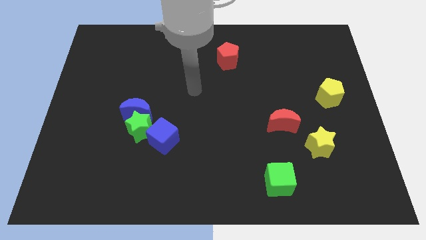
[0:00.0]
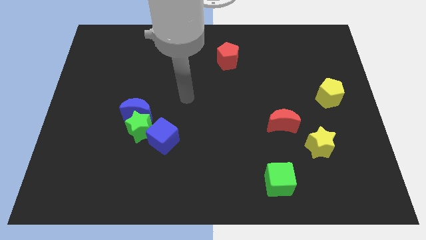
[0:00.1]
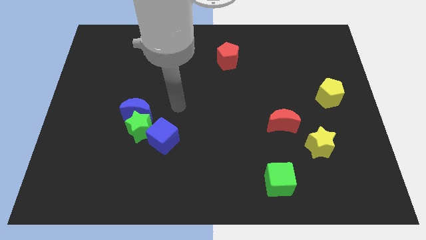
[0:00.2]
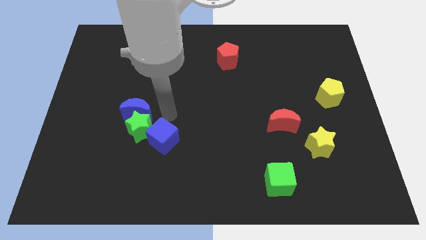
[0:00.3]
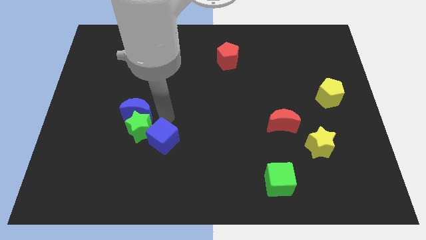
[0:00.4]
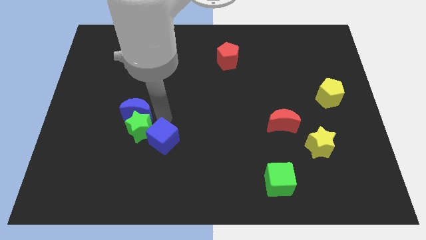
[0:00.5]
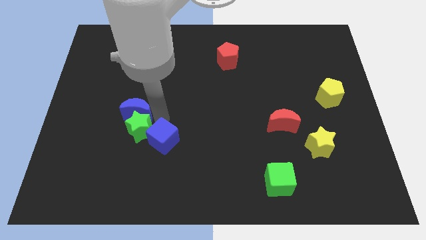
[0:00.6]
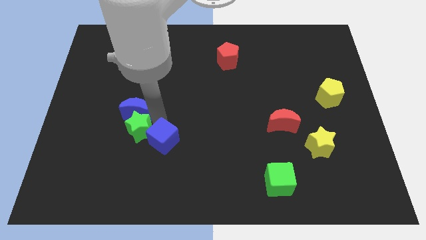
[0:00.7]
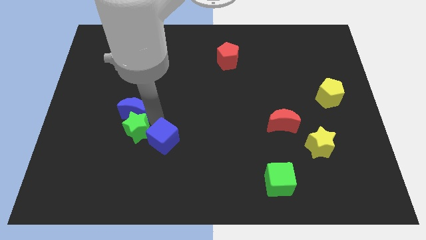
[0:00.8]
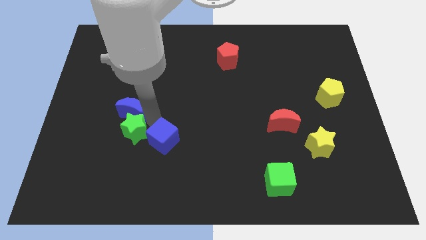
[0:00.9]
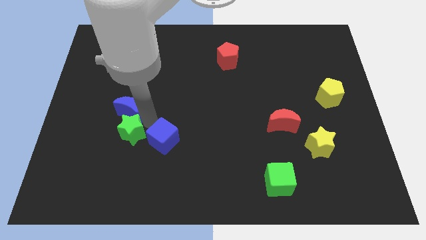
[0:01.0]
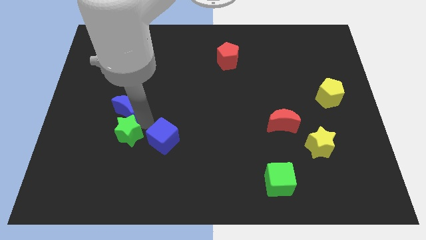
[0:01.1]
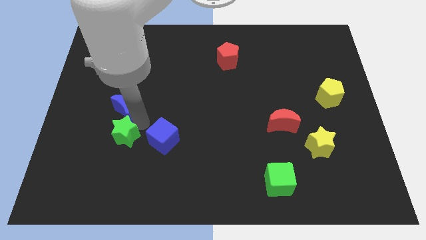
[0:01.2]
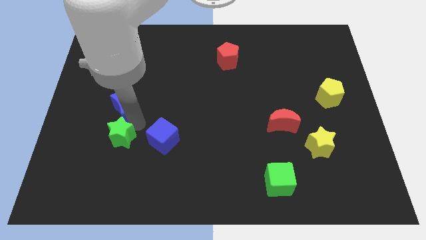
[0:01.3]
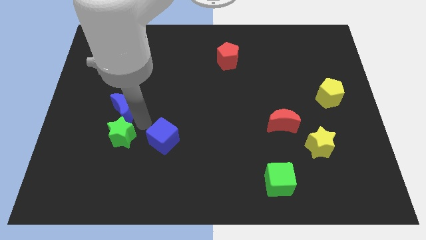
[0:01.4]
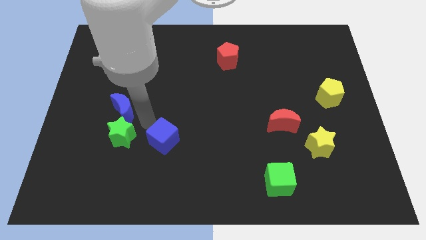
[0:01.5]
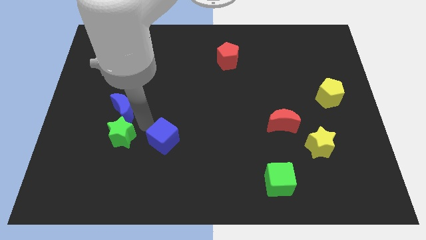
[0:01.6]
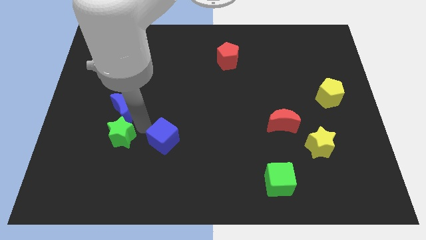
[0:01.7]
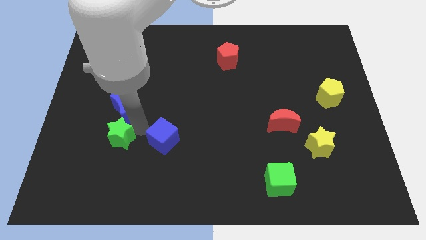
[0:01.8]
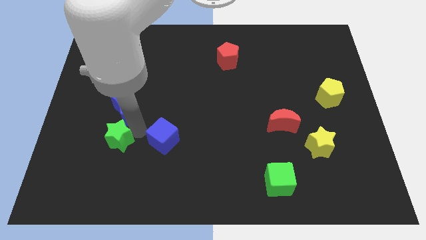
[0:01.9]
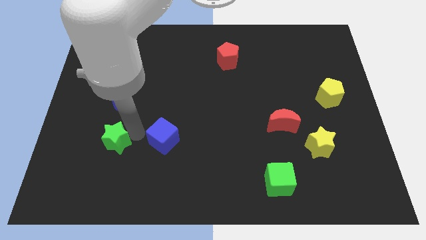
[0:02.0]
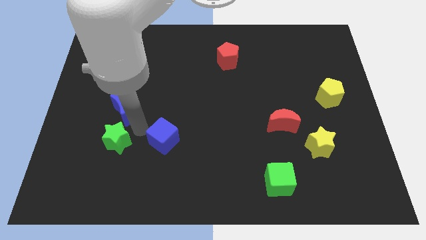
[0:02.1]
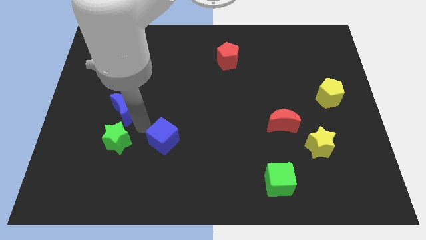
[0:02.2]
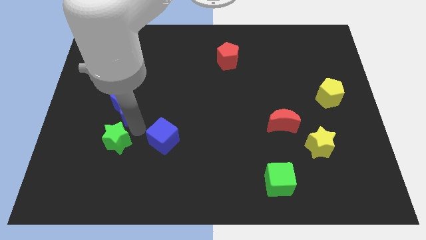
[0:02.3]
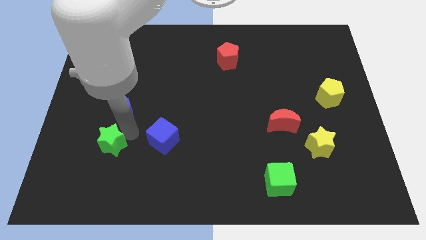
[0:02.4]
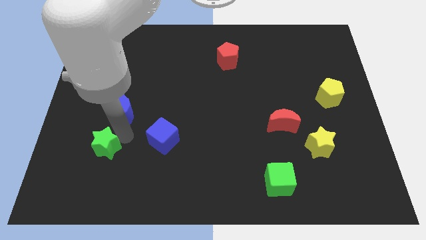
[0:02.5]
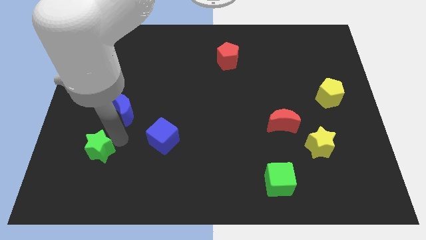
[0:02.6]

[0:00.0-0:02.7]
move the green star away from the blue moon and blue cube

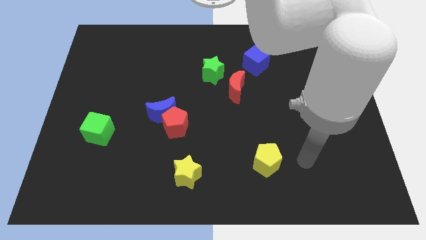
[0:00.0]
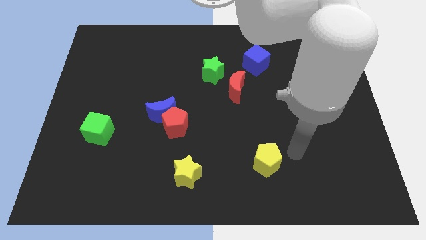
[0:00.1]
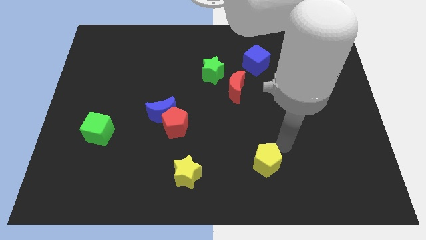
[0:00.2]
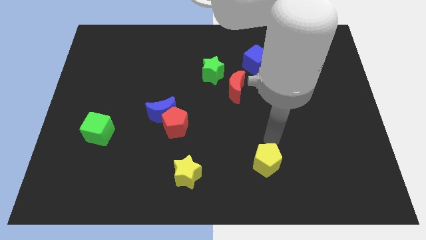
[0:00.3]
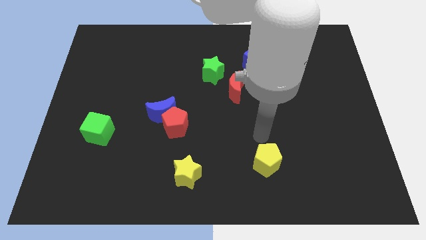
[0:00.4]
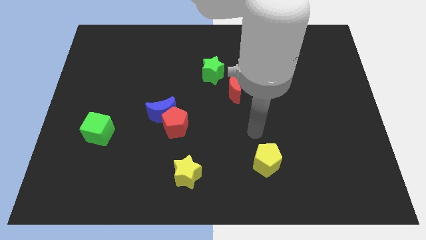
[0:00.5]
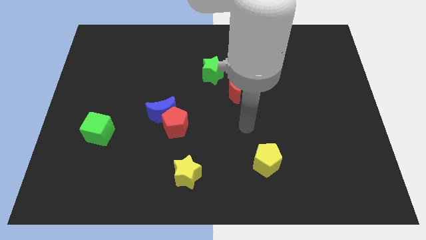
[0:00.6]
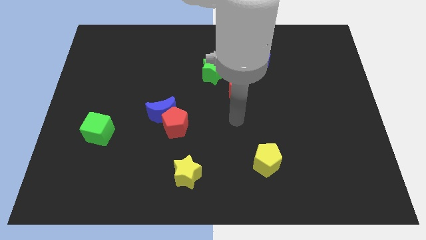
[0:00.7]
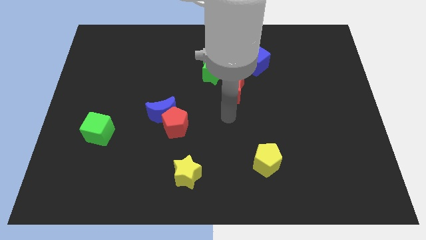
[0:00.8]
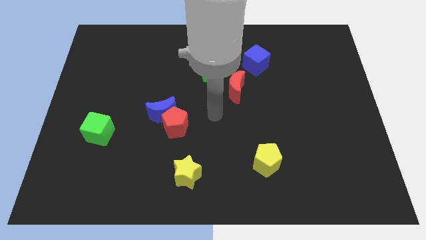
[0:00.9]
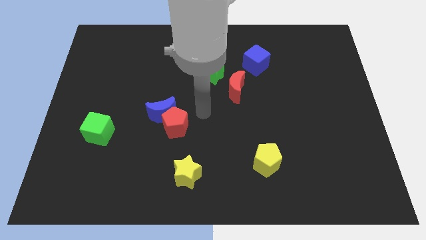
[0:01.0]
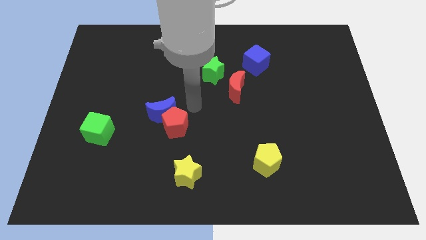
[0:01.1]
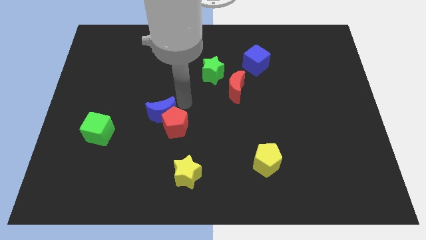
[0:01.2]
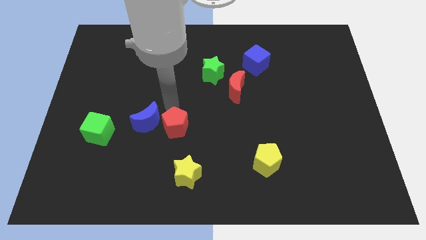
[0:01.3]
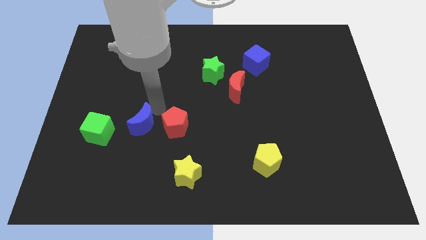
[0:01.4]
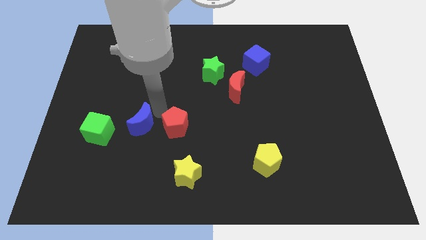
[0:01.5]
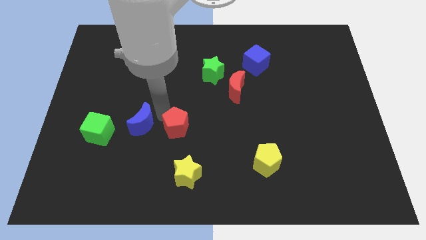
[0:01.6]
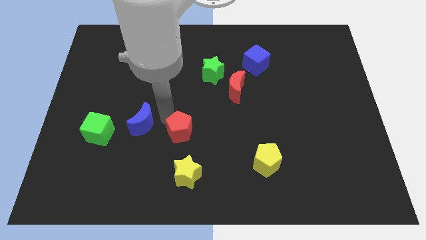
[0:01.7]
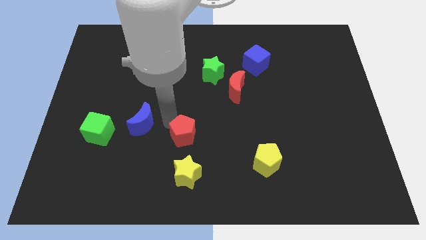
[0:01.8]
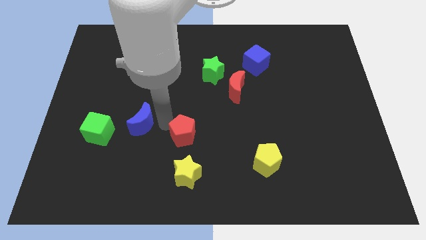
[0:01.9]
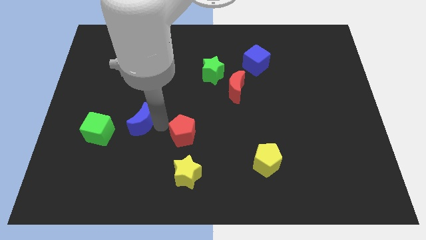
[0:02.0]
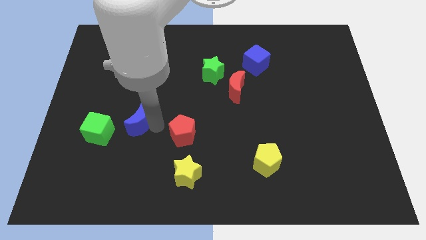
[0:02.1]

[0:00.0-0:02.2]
separate the red pentagon from the blue moon

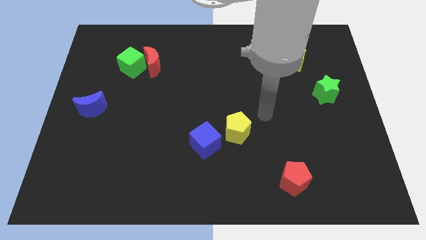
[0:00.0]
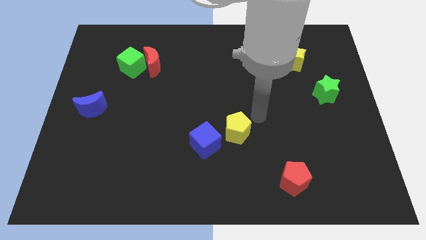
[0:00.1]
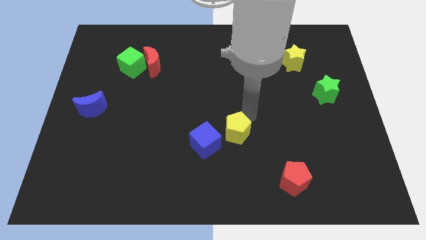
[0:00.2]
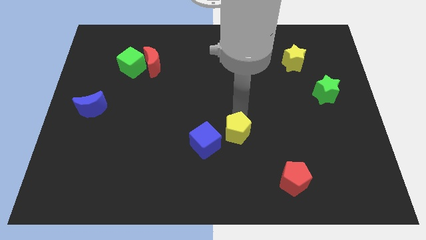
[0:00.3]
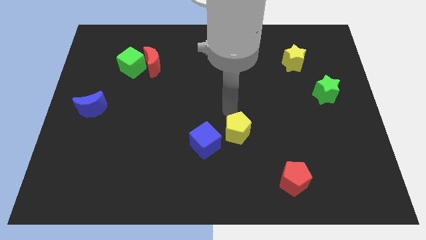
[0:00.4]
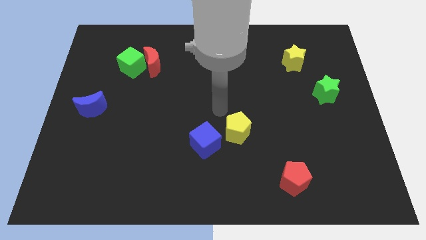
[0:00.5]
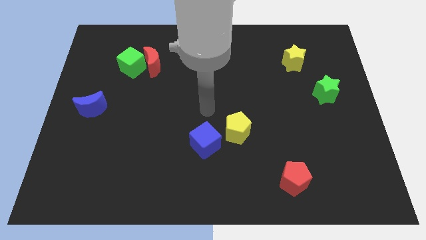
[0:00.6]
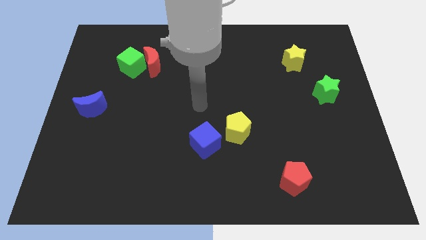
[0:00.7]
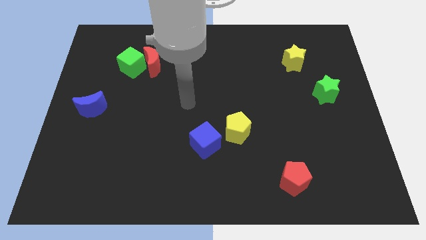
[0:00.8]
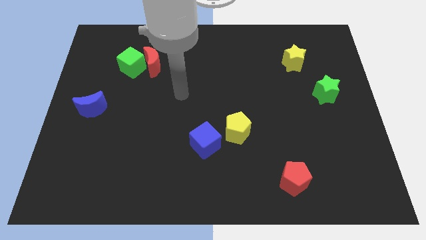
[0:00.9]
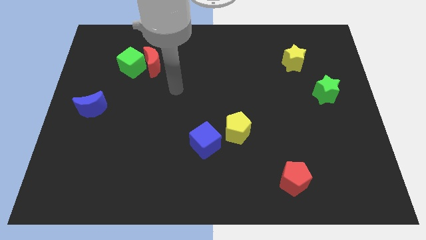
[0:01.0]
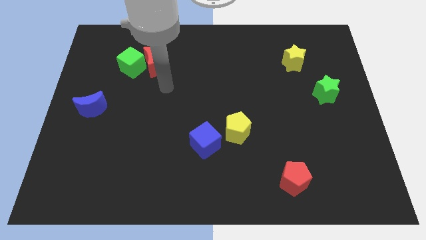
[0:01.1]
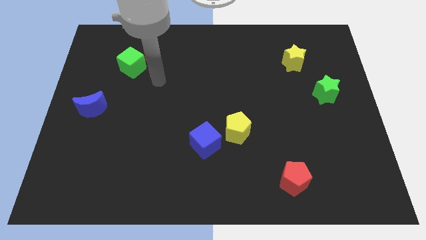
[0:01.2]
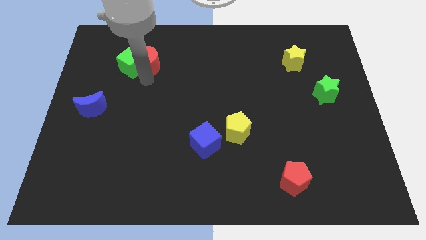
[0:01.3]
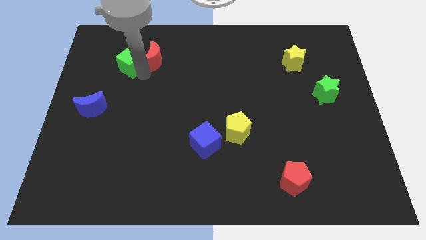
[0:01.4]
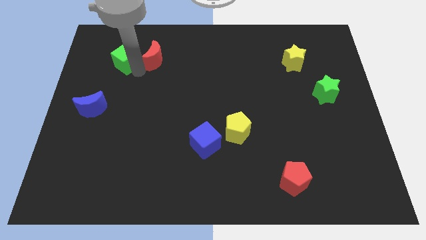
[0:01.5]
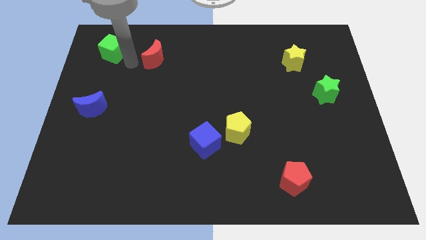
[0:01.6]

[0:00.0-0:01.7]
separate the red moon from the green cube

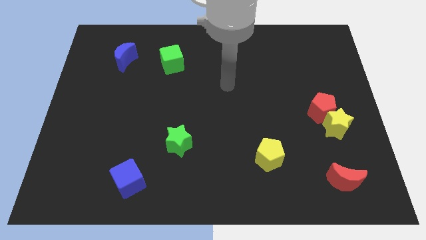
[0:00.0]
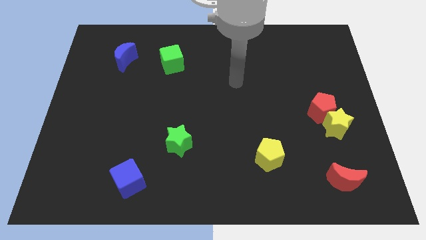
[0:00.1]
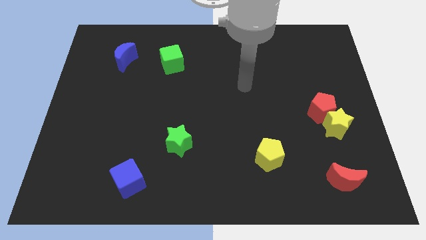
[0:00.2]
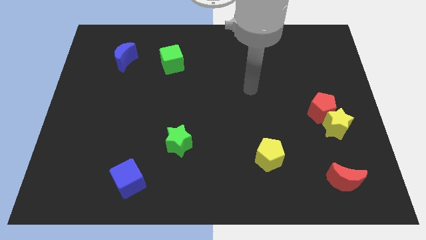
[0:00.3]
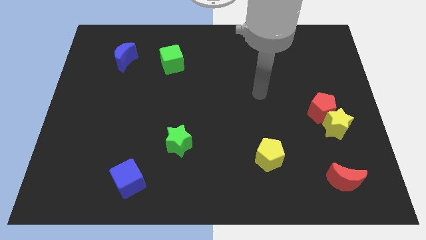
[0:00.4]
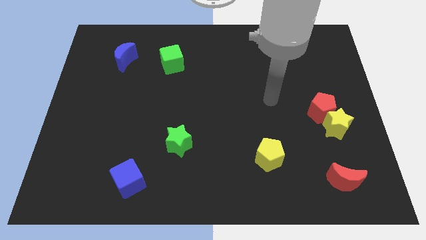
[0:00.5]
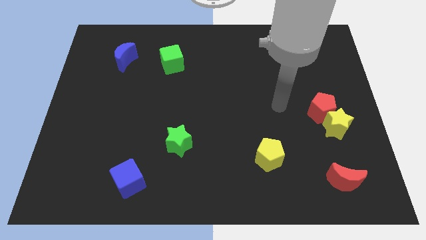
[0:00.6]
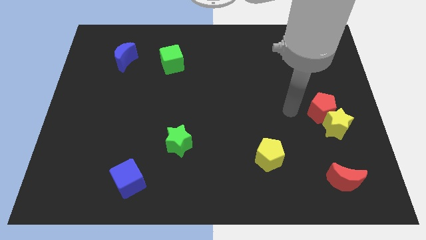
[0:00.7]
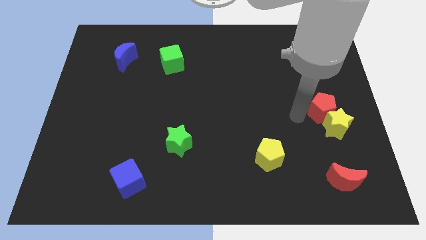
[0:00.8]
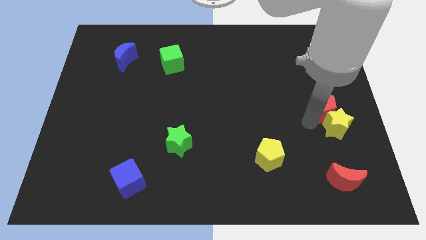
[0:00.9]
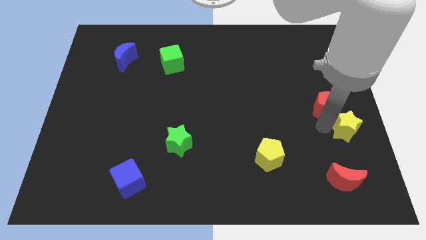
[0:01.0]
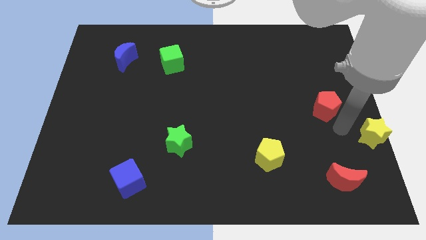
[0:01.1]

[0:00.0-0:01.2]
move the red pentagon away from the yellow star

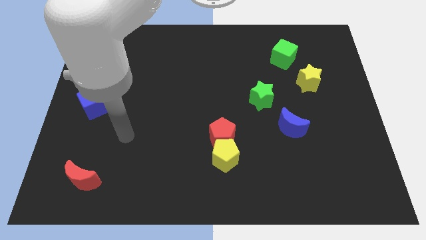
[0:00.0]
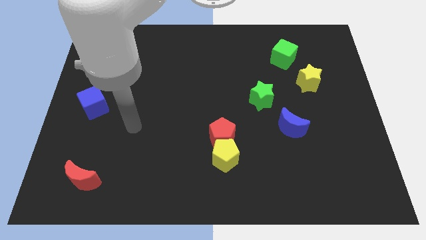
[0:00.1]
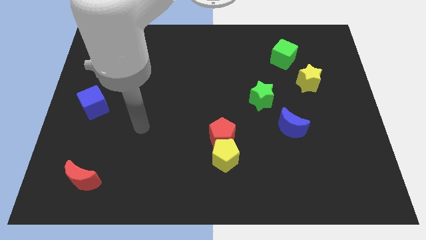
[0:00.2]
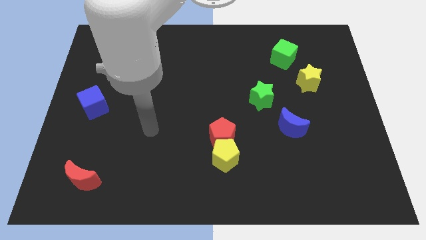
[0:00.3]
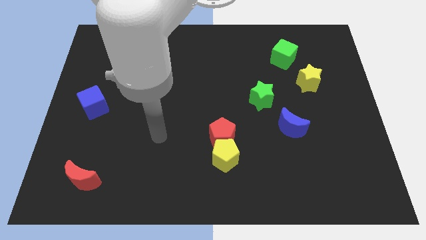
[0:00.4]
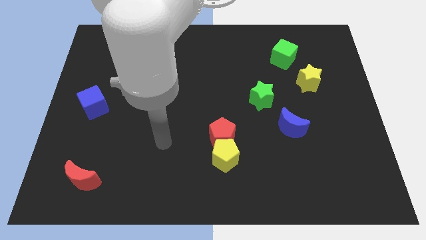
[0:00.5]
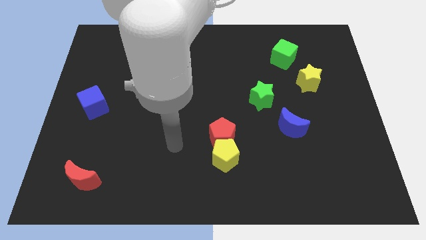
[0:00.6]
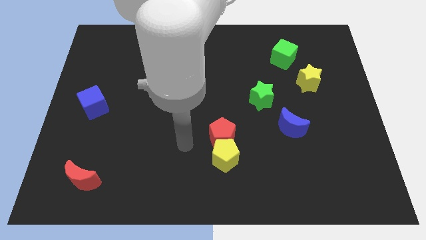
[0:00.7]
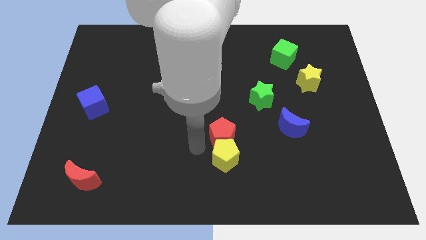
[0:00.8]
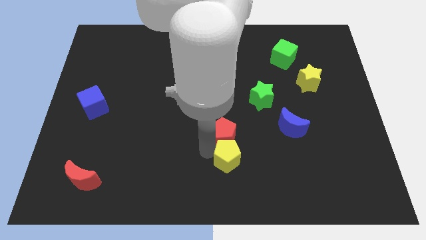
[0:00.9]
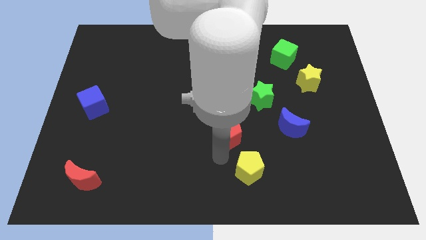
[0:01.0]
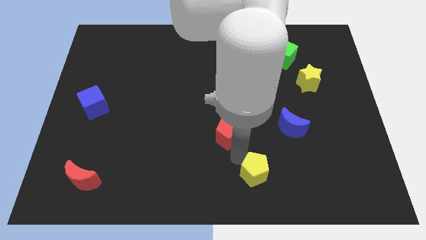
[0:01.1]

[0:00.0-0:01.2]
pull the red pentagon apart from the yellow pentagon

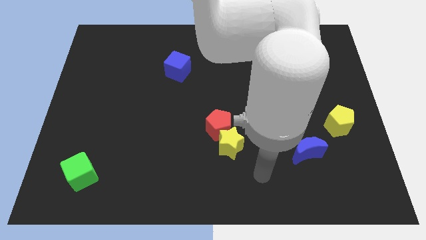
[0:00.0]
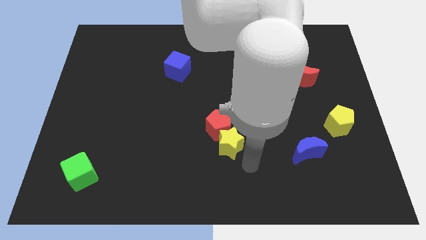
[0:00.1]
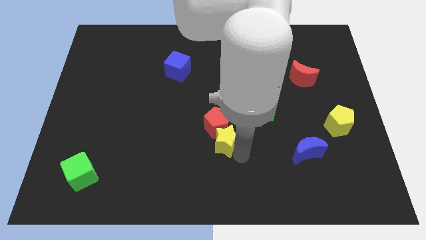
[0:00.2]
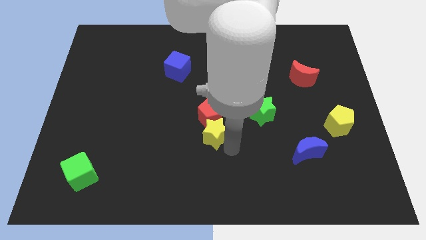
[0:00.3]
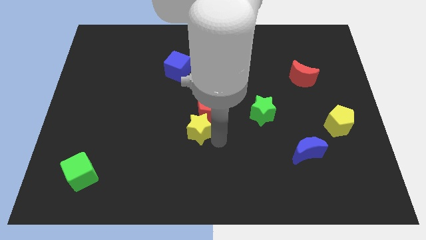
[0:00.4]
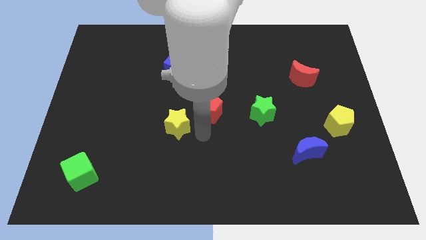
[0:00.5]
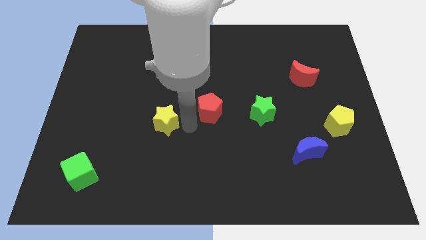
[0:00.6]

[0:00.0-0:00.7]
separate the red pentagon from the yellow star
